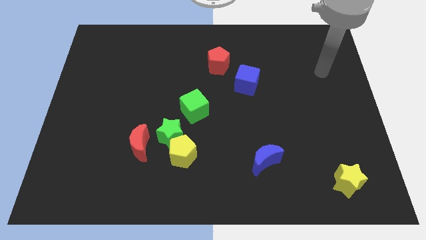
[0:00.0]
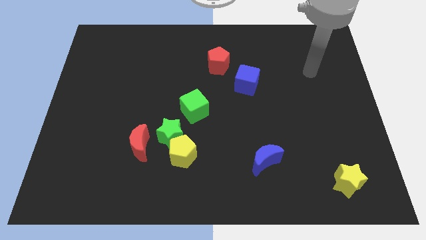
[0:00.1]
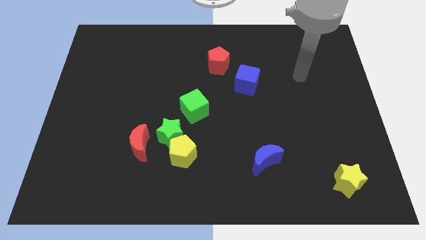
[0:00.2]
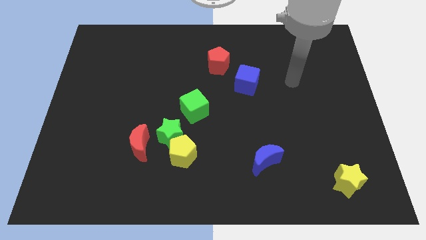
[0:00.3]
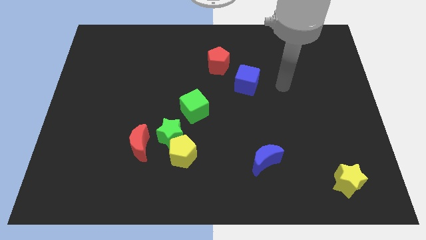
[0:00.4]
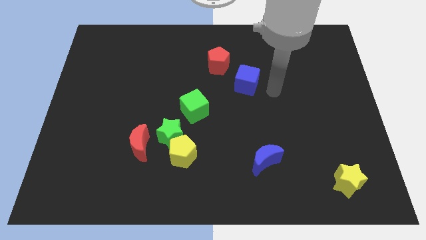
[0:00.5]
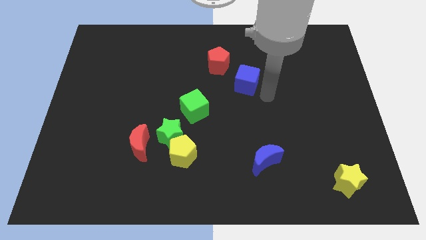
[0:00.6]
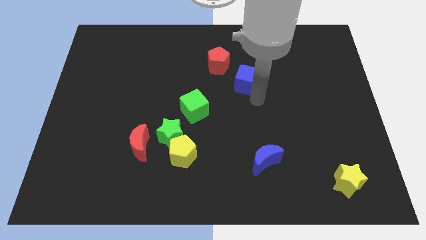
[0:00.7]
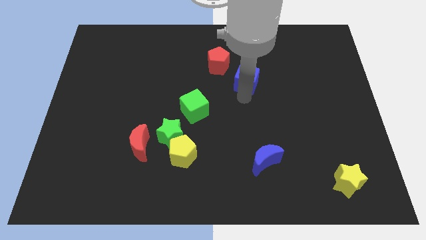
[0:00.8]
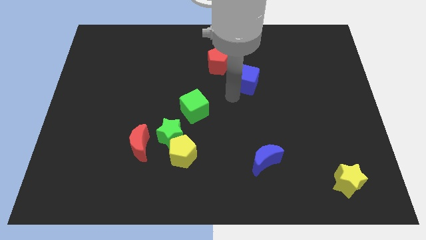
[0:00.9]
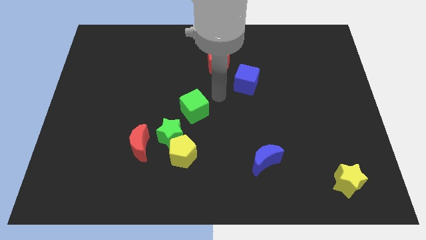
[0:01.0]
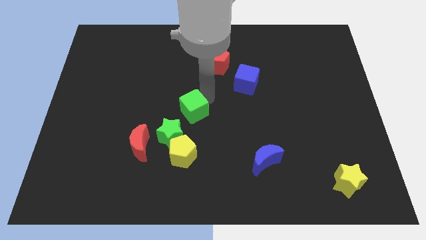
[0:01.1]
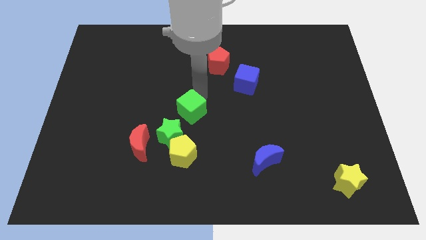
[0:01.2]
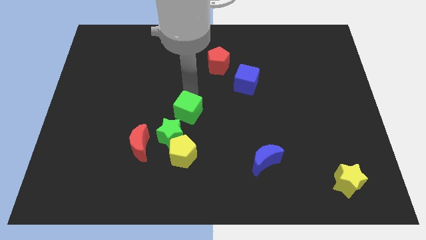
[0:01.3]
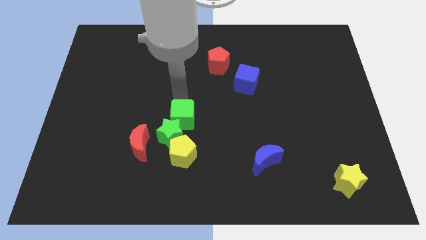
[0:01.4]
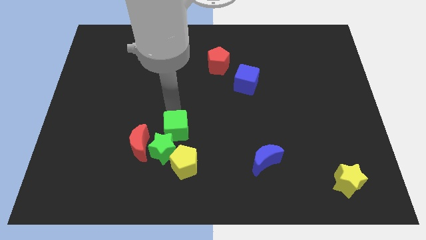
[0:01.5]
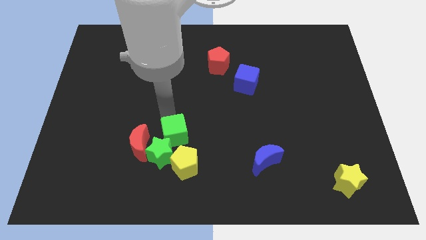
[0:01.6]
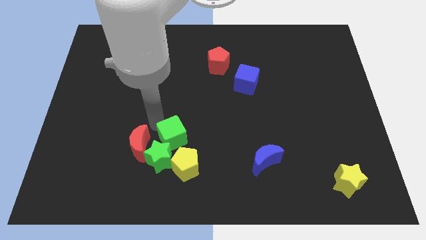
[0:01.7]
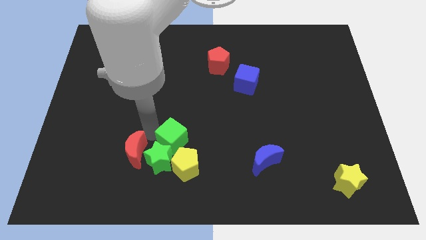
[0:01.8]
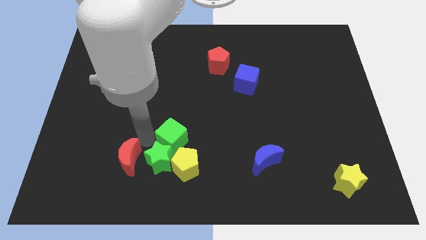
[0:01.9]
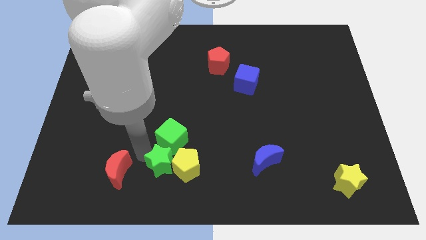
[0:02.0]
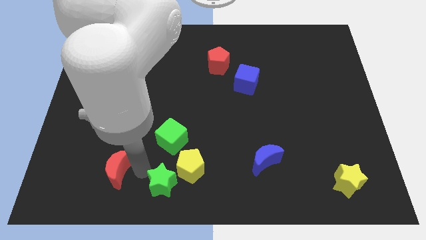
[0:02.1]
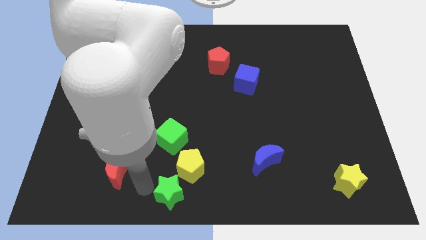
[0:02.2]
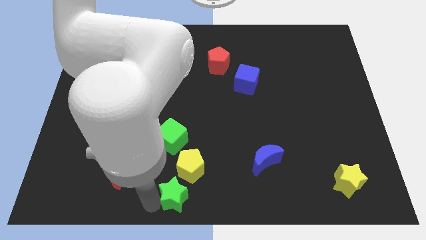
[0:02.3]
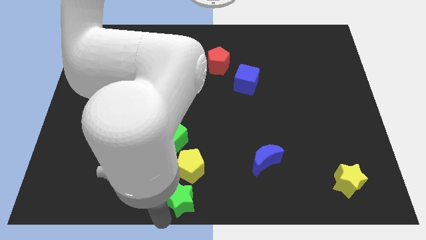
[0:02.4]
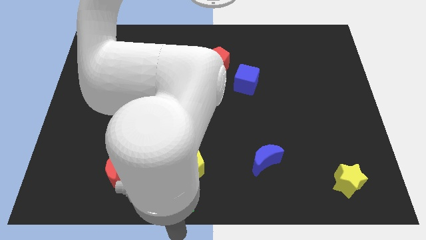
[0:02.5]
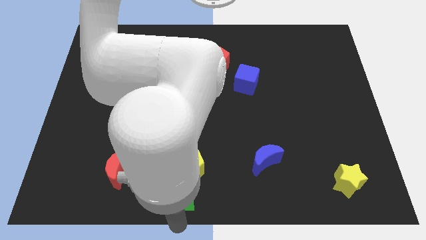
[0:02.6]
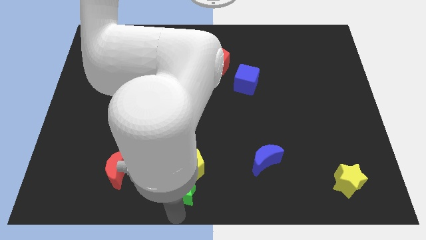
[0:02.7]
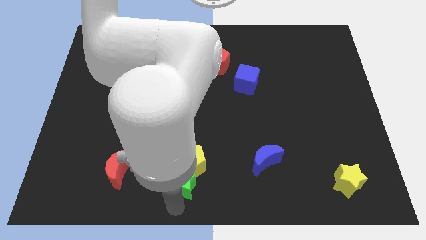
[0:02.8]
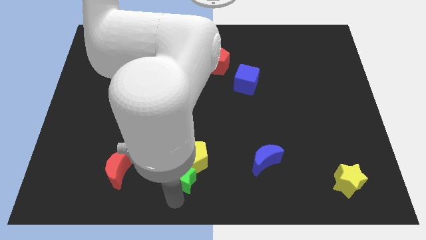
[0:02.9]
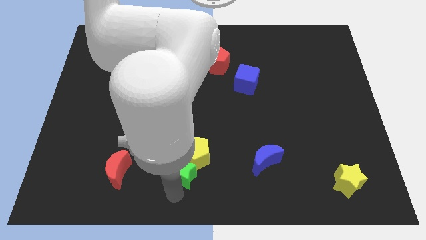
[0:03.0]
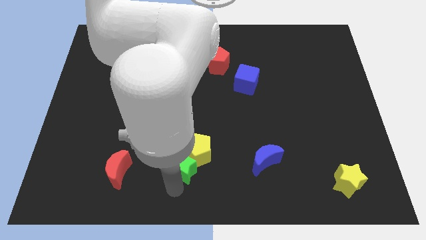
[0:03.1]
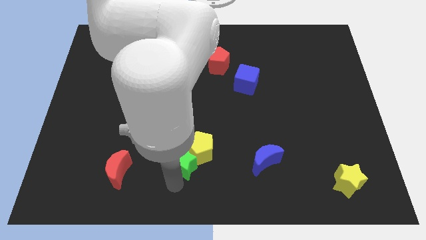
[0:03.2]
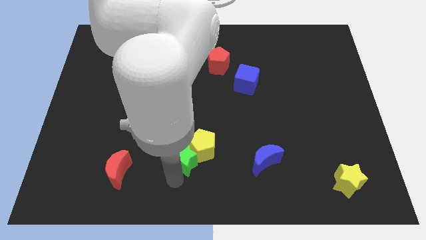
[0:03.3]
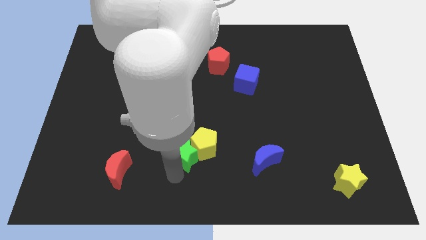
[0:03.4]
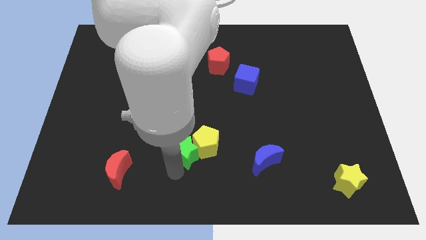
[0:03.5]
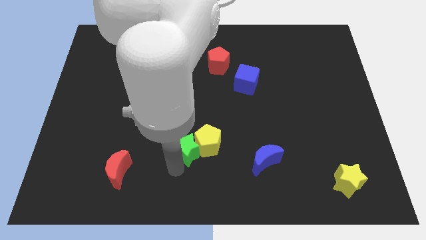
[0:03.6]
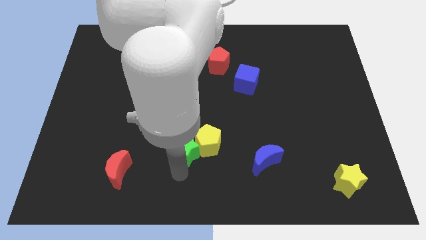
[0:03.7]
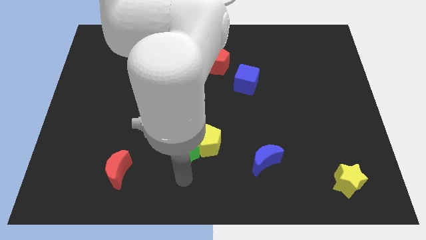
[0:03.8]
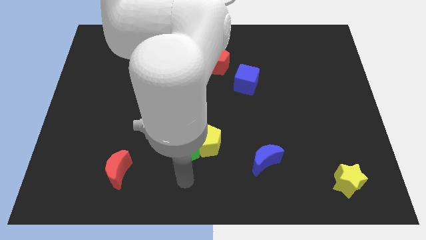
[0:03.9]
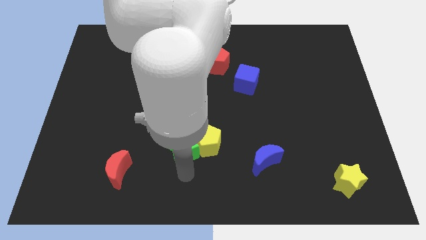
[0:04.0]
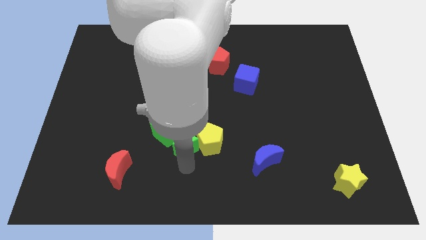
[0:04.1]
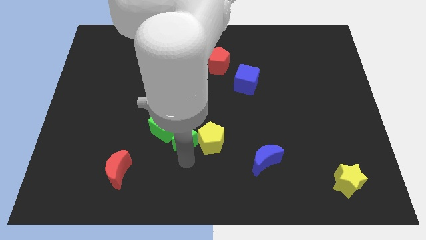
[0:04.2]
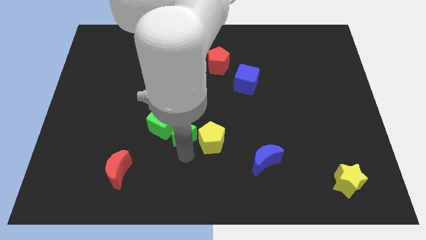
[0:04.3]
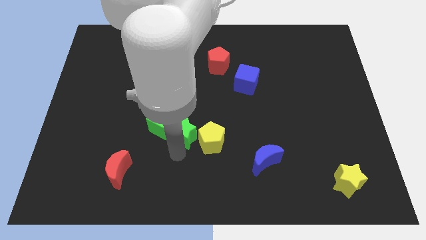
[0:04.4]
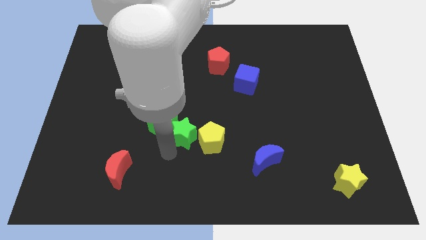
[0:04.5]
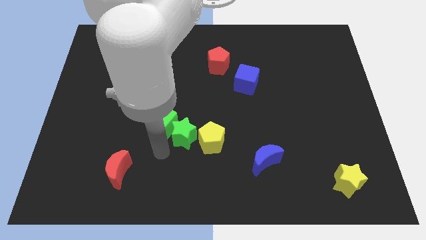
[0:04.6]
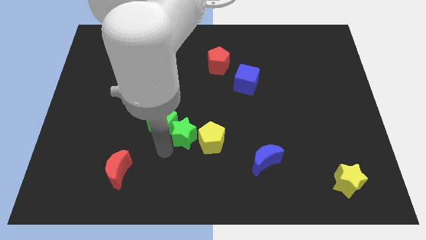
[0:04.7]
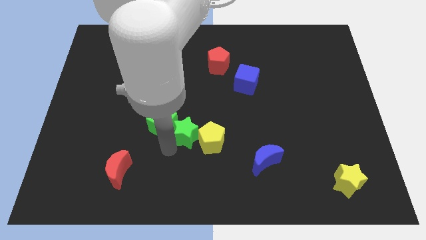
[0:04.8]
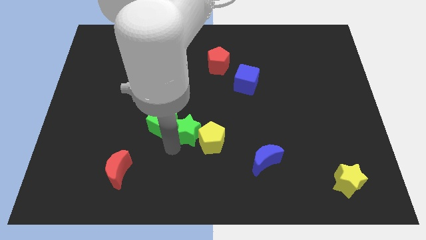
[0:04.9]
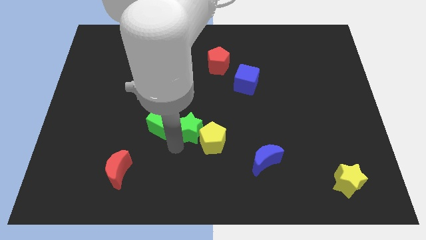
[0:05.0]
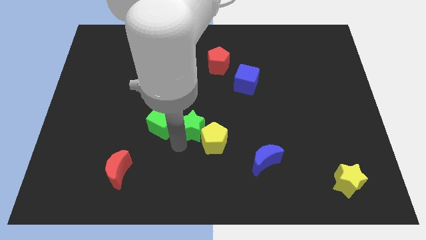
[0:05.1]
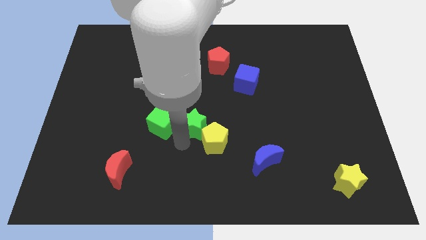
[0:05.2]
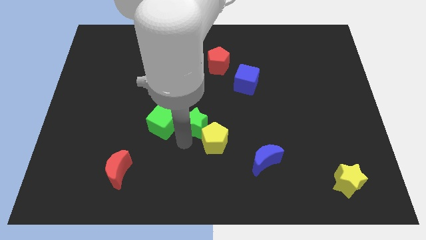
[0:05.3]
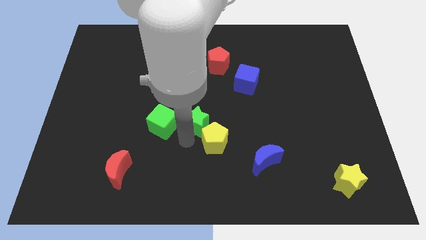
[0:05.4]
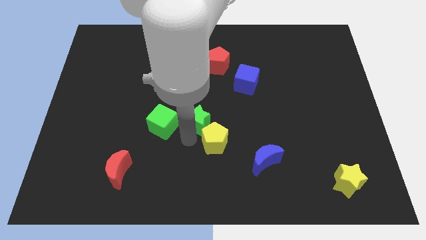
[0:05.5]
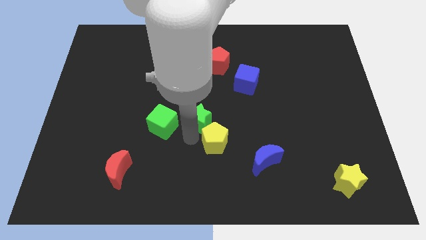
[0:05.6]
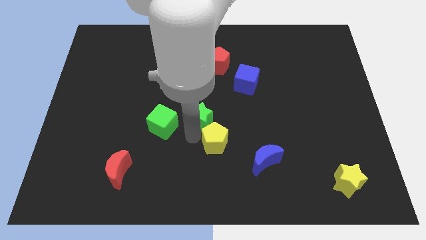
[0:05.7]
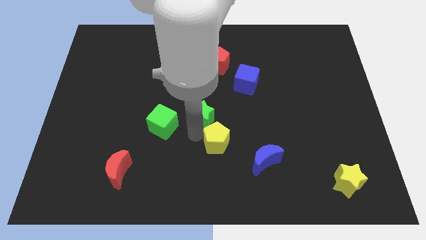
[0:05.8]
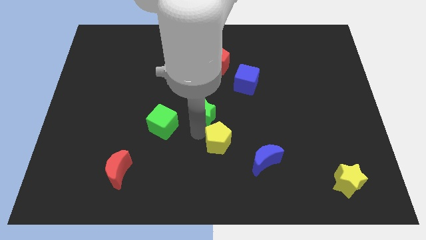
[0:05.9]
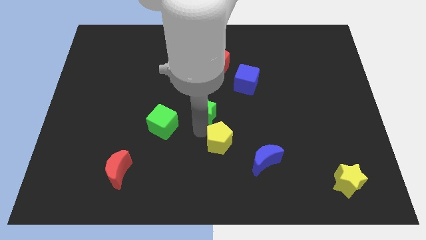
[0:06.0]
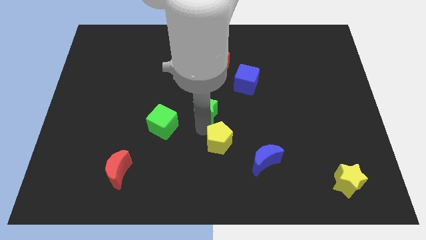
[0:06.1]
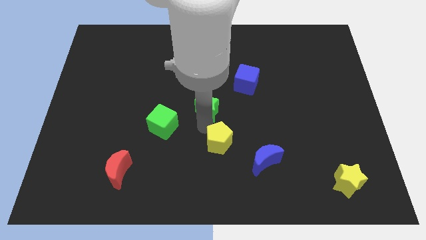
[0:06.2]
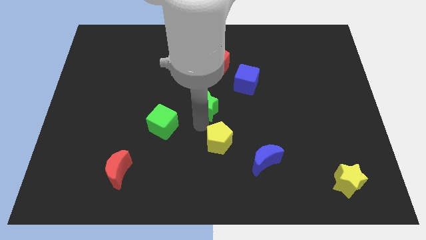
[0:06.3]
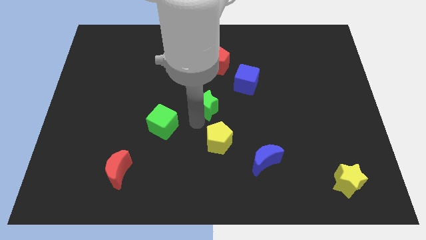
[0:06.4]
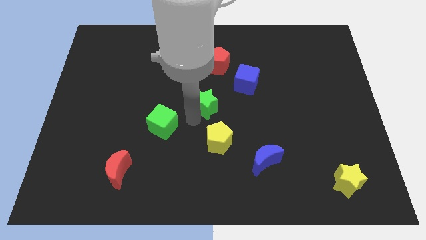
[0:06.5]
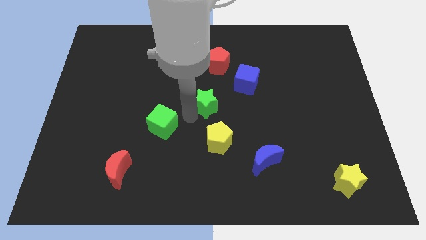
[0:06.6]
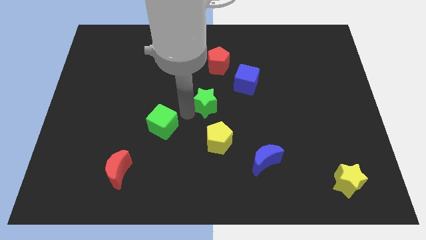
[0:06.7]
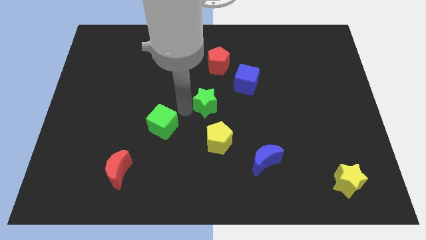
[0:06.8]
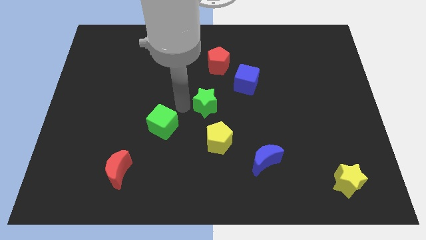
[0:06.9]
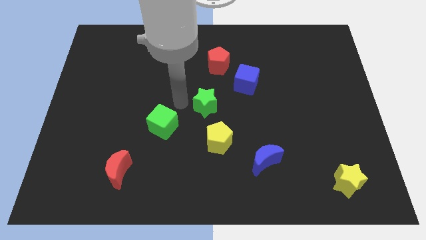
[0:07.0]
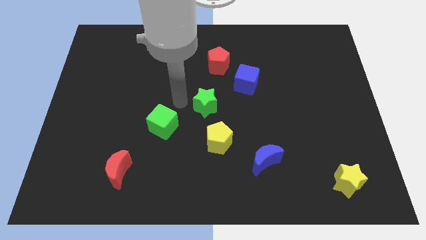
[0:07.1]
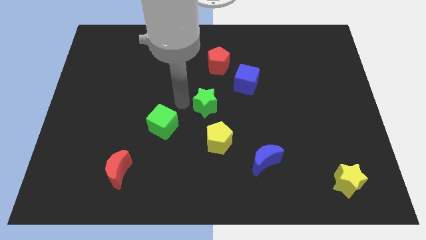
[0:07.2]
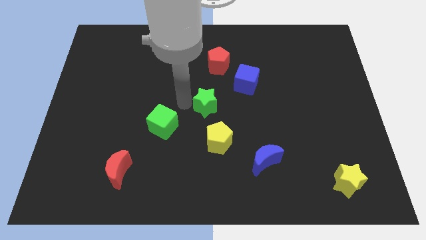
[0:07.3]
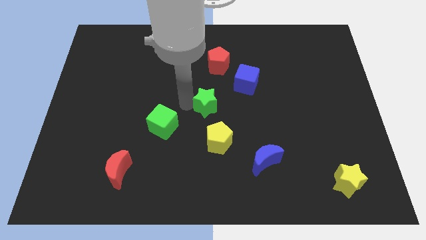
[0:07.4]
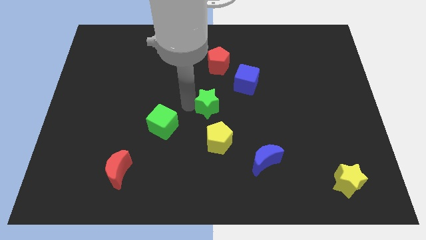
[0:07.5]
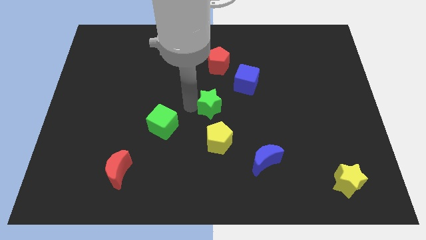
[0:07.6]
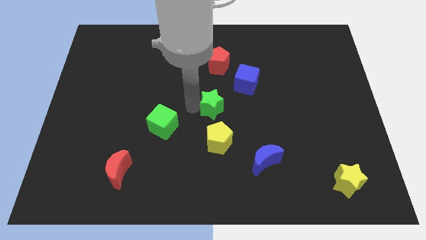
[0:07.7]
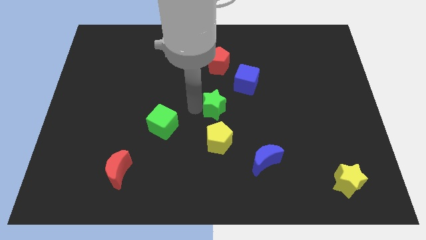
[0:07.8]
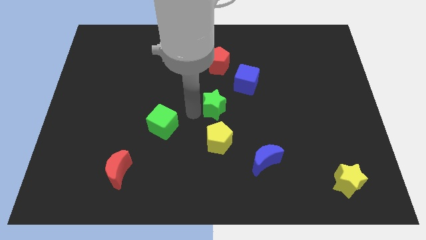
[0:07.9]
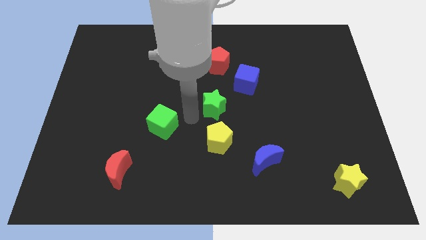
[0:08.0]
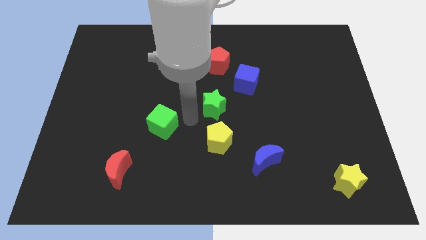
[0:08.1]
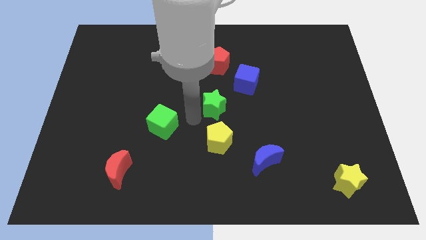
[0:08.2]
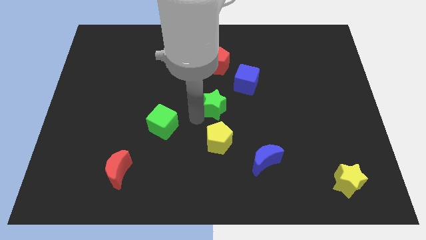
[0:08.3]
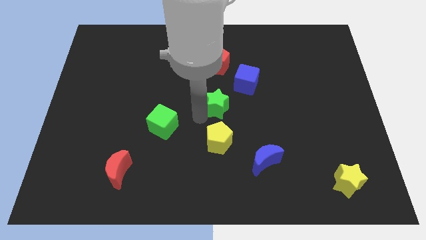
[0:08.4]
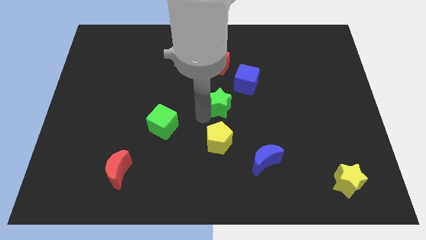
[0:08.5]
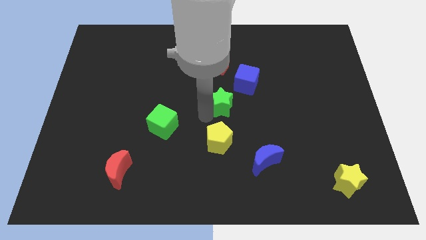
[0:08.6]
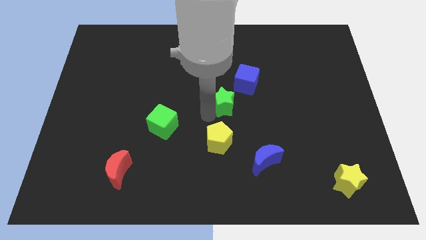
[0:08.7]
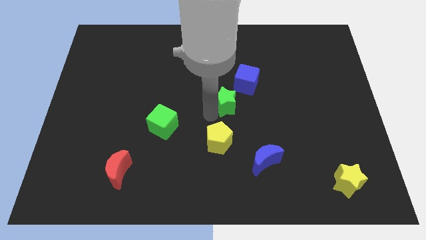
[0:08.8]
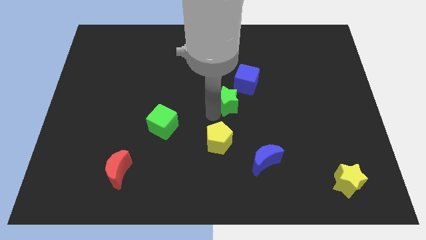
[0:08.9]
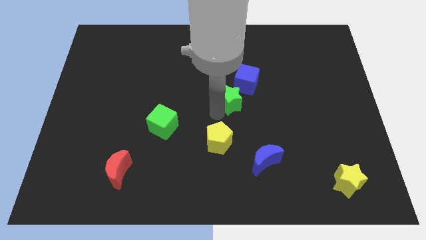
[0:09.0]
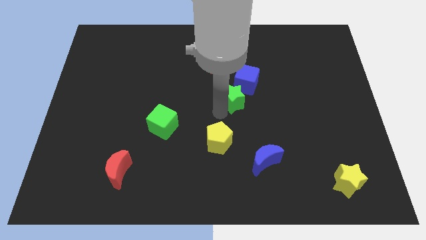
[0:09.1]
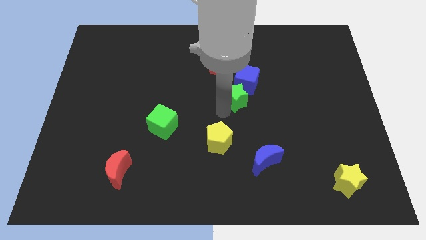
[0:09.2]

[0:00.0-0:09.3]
move the green star to the blue cube
